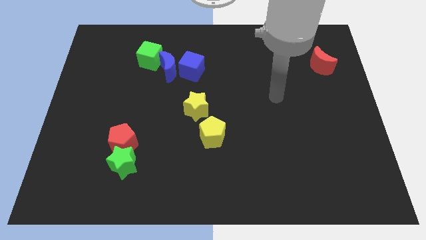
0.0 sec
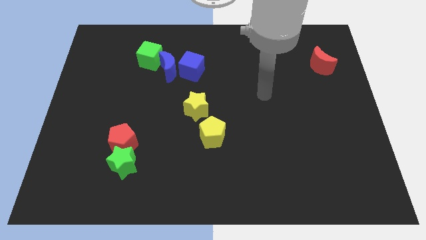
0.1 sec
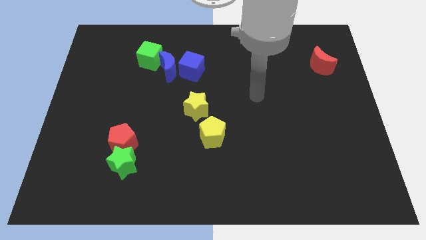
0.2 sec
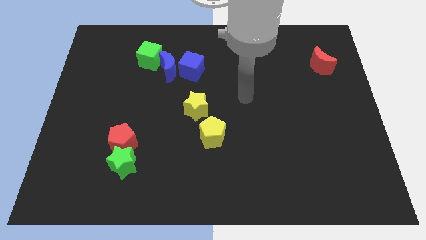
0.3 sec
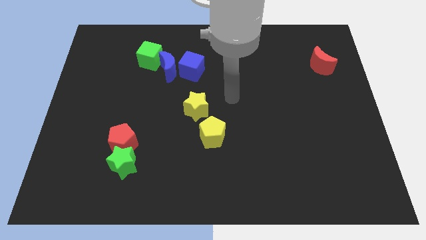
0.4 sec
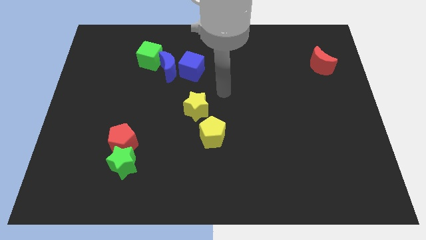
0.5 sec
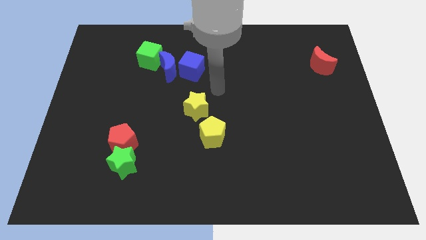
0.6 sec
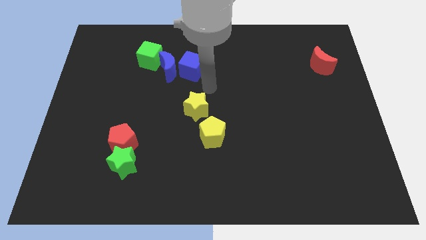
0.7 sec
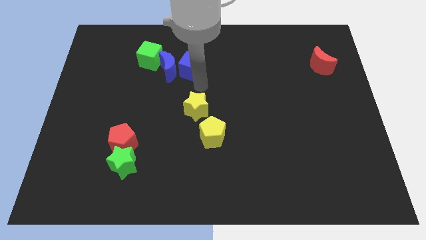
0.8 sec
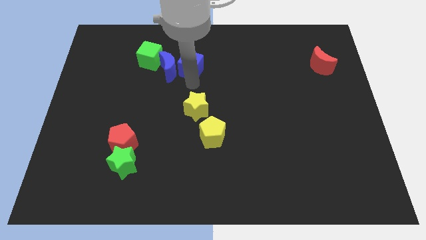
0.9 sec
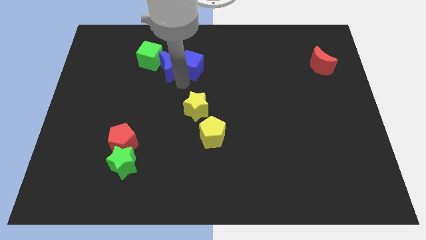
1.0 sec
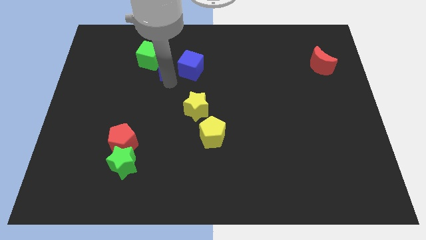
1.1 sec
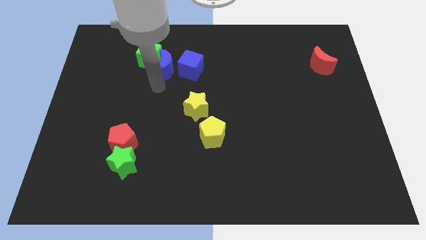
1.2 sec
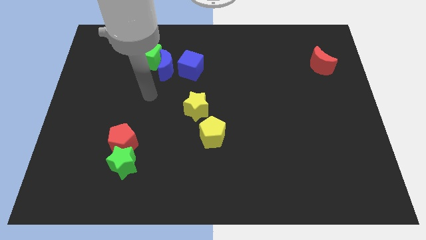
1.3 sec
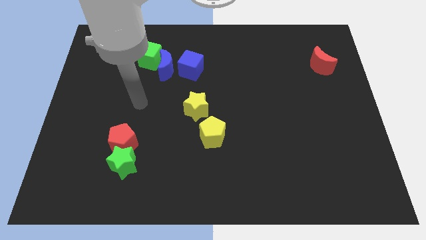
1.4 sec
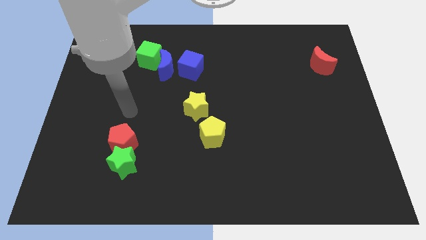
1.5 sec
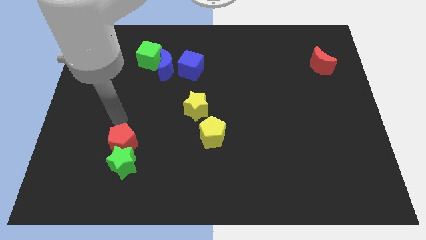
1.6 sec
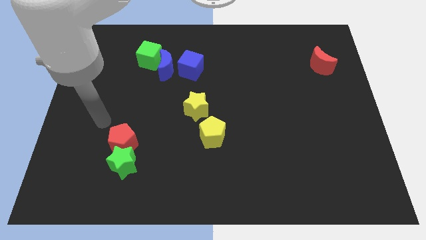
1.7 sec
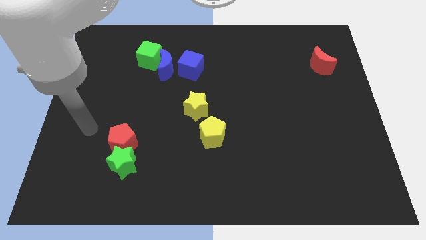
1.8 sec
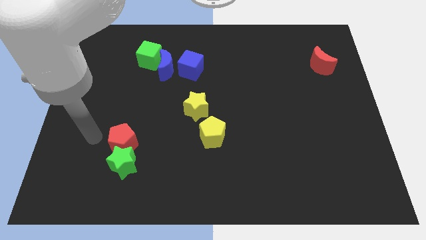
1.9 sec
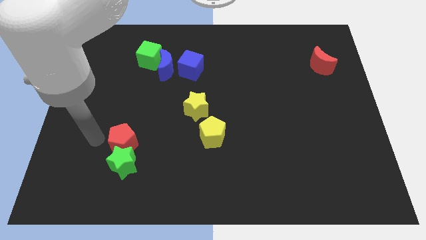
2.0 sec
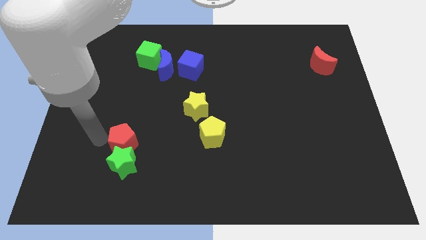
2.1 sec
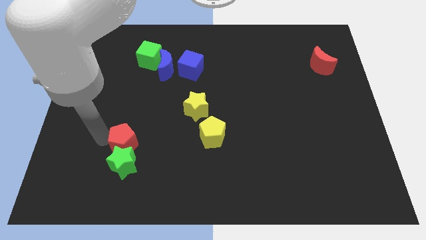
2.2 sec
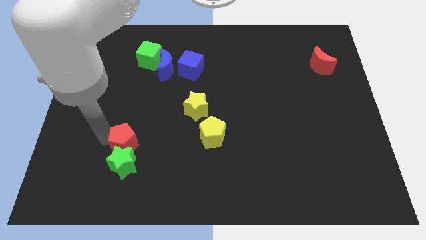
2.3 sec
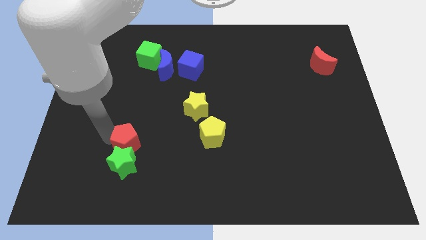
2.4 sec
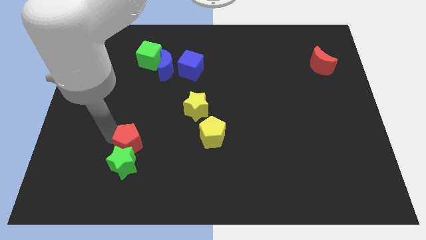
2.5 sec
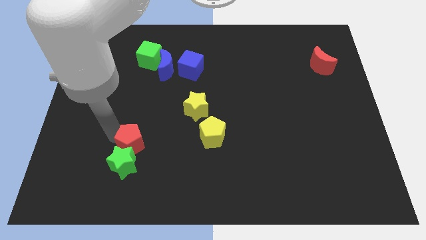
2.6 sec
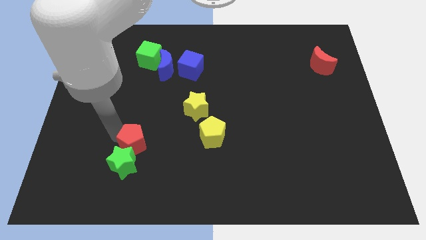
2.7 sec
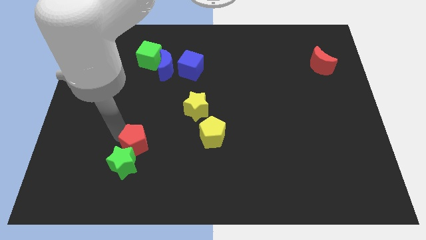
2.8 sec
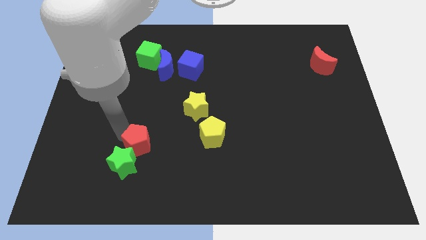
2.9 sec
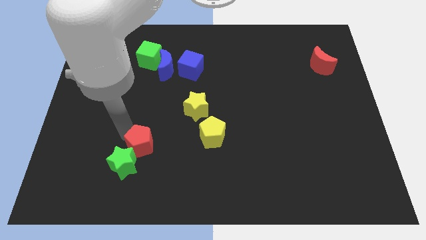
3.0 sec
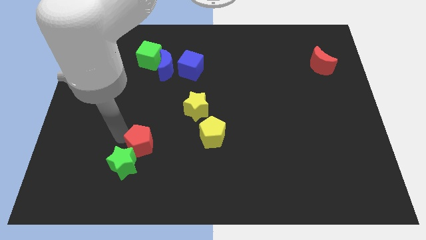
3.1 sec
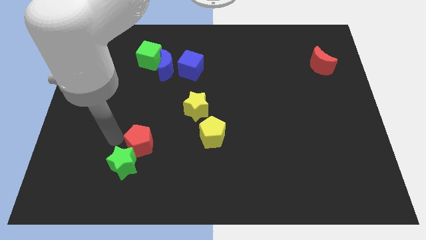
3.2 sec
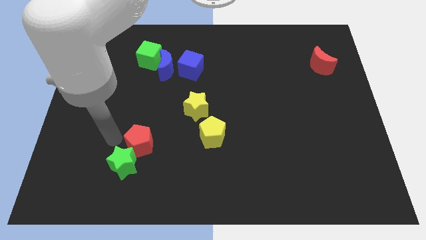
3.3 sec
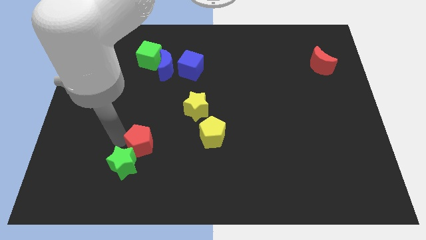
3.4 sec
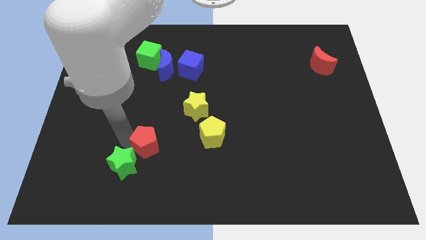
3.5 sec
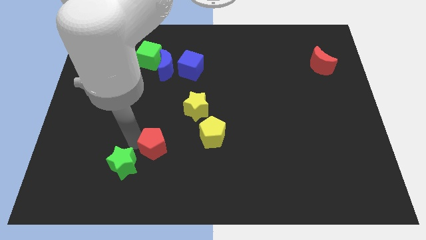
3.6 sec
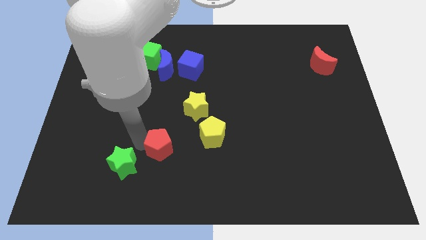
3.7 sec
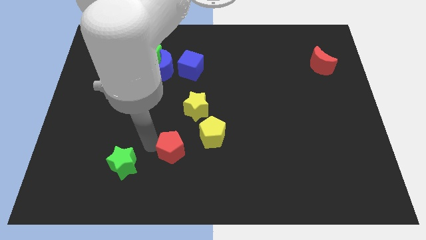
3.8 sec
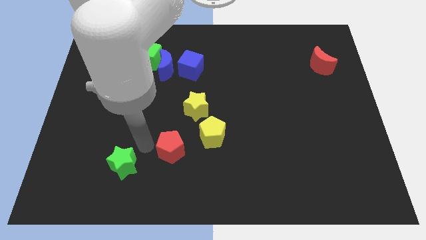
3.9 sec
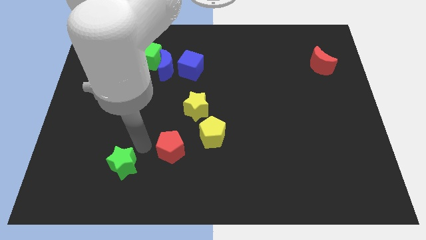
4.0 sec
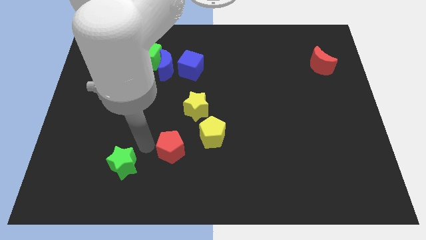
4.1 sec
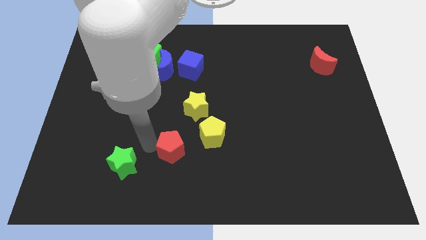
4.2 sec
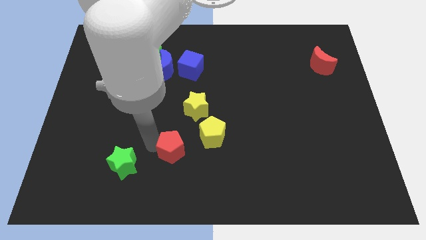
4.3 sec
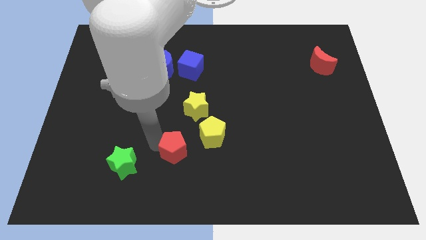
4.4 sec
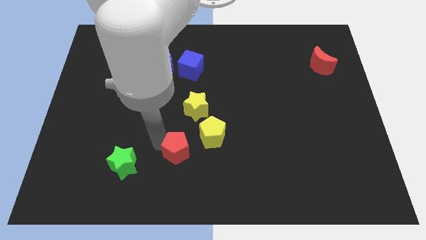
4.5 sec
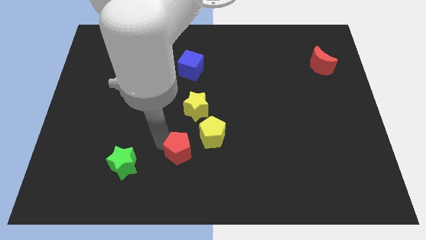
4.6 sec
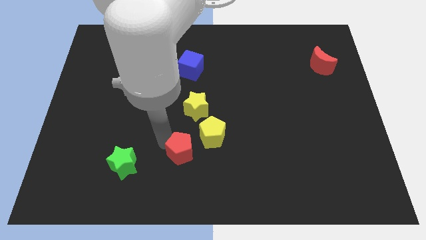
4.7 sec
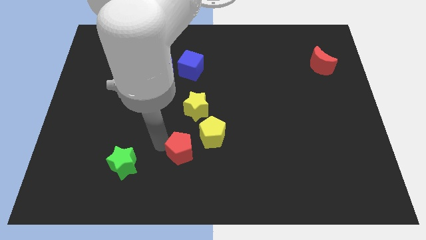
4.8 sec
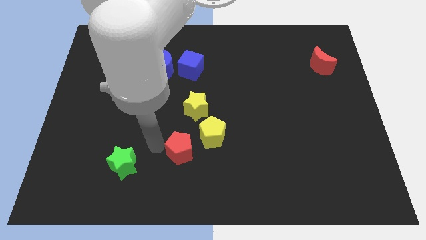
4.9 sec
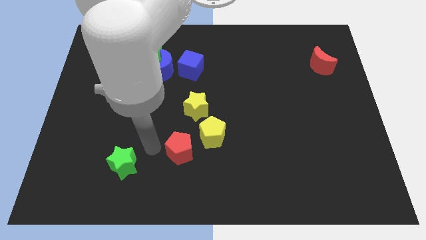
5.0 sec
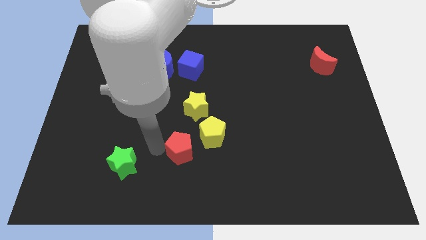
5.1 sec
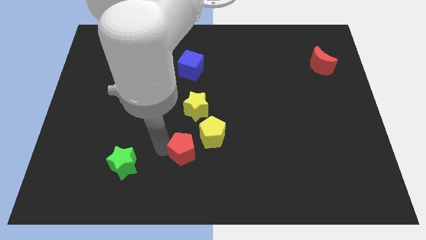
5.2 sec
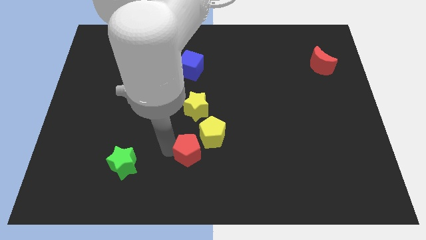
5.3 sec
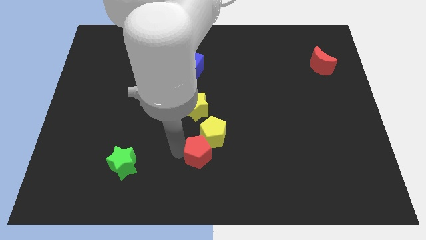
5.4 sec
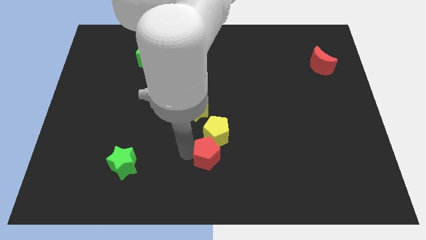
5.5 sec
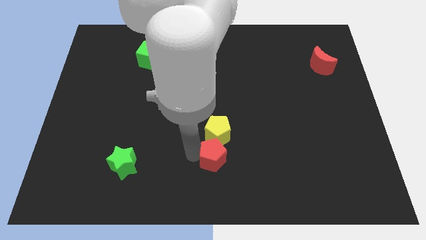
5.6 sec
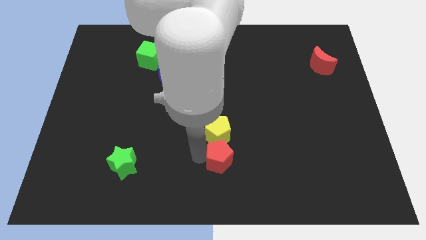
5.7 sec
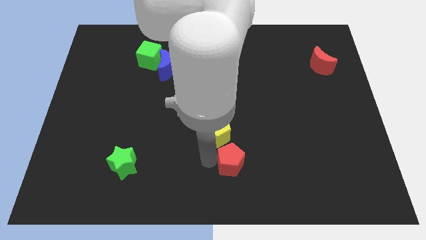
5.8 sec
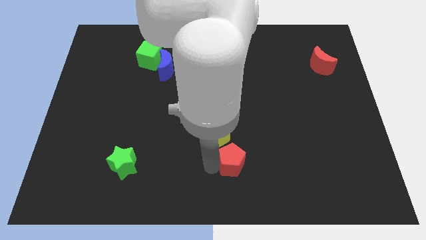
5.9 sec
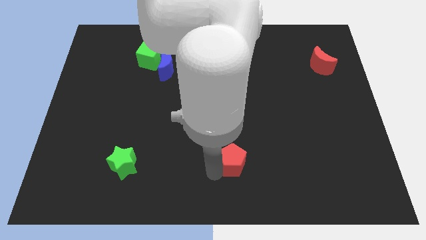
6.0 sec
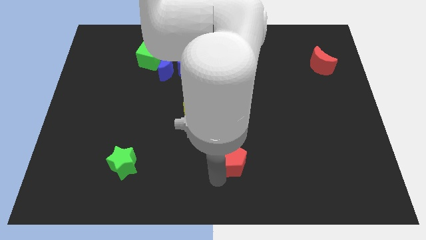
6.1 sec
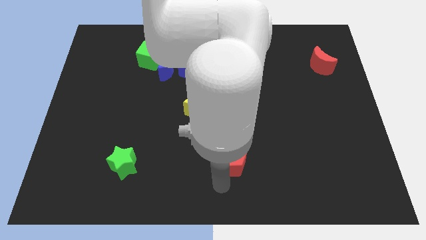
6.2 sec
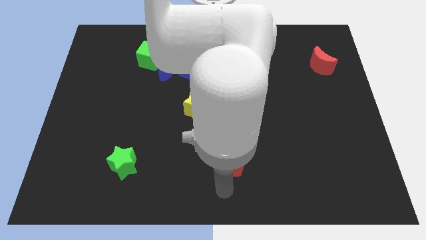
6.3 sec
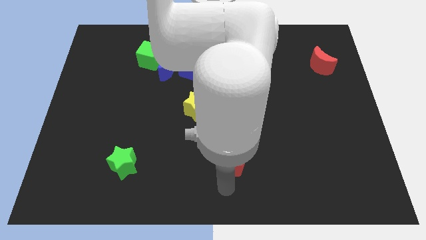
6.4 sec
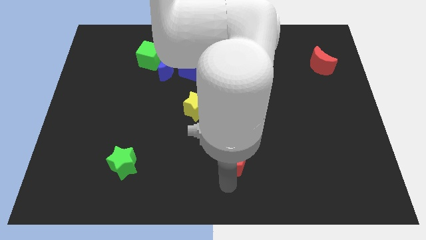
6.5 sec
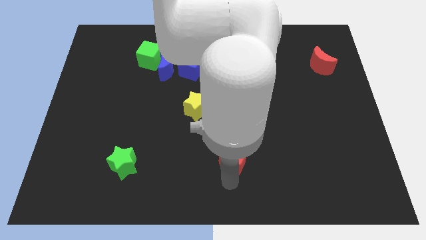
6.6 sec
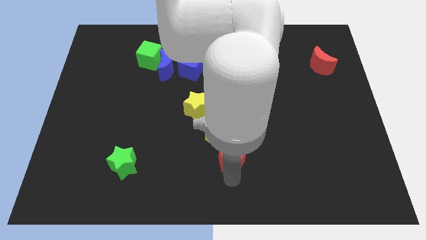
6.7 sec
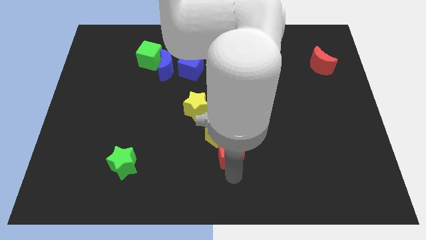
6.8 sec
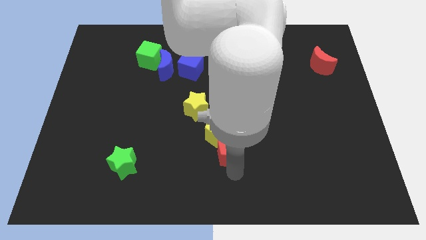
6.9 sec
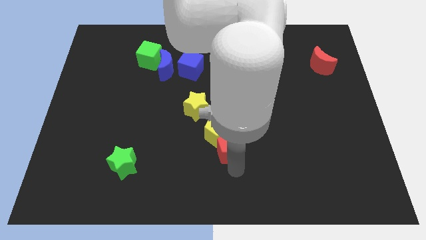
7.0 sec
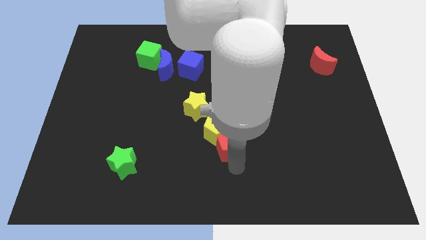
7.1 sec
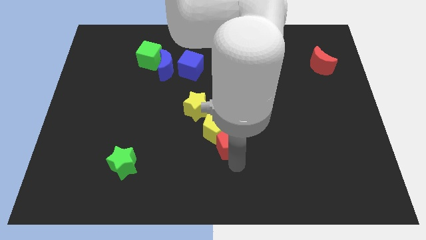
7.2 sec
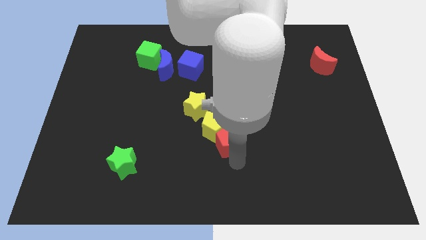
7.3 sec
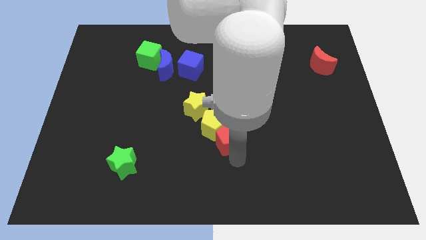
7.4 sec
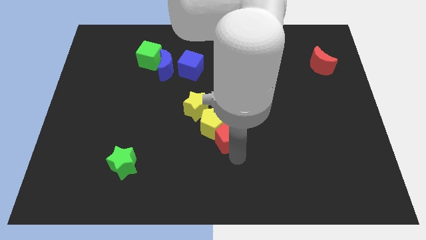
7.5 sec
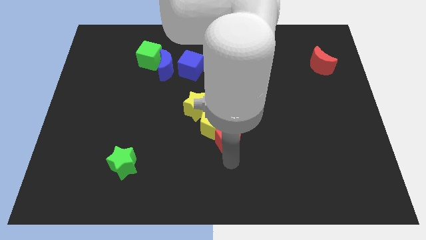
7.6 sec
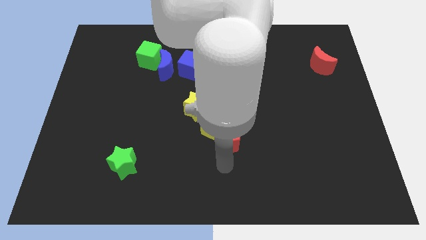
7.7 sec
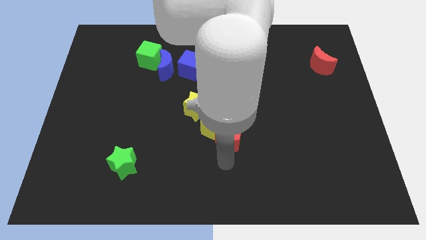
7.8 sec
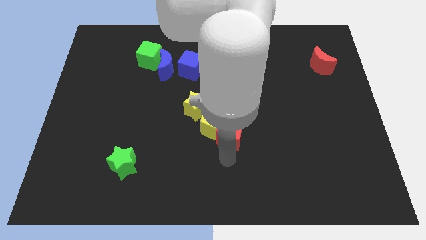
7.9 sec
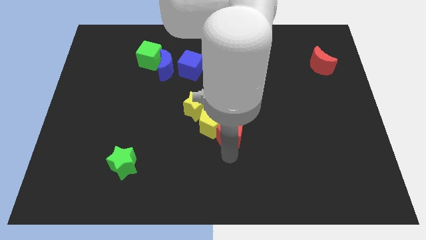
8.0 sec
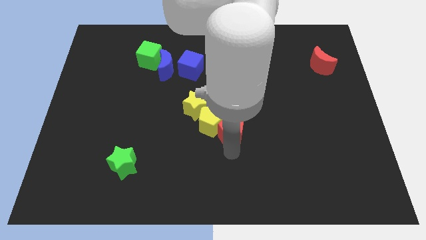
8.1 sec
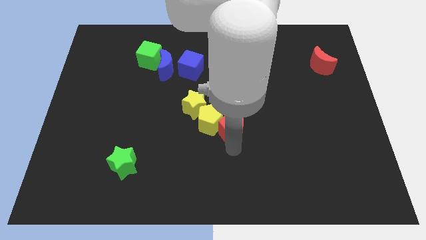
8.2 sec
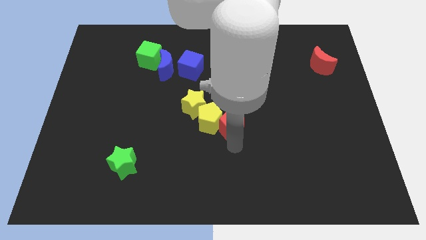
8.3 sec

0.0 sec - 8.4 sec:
put the red pentagon to the top right of the yellow pentagon
